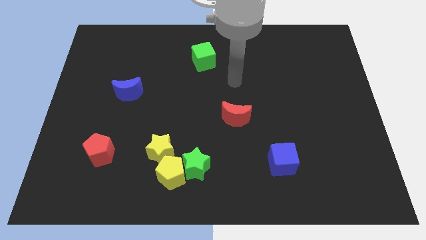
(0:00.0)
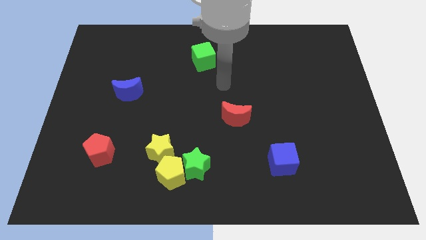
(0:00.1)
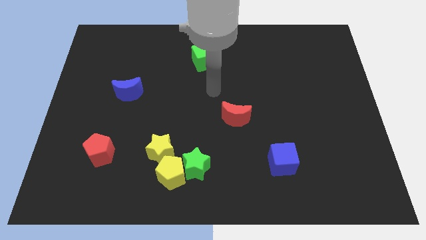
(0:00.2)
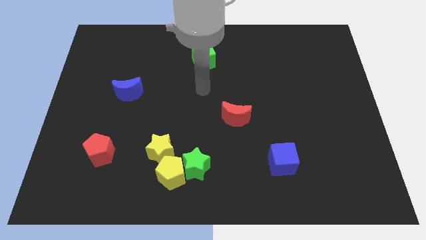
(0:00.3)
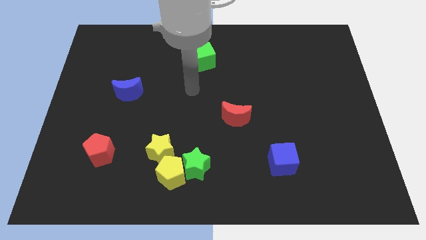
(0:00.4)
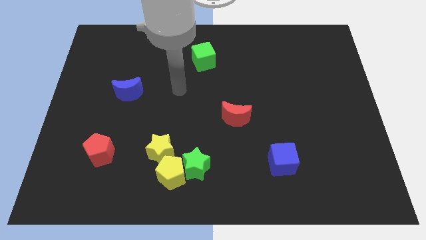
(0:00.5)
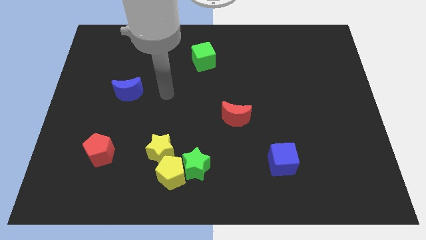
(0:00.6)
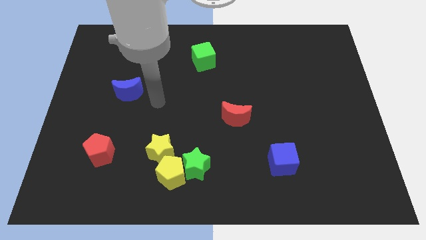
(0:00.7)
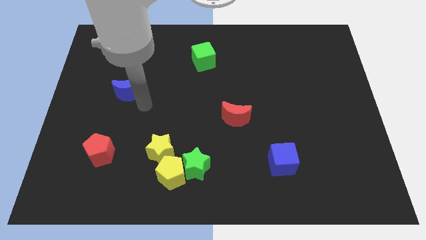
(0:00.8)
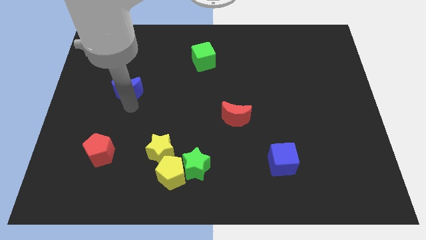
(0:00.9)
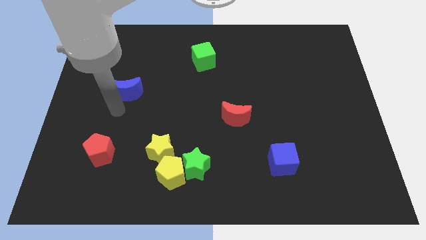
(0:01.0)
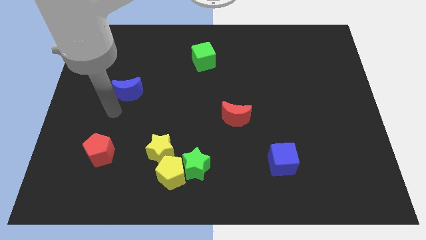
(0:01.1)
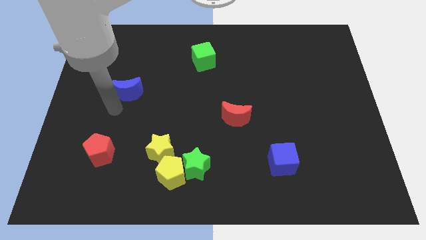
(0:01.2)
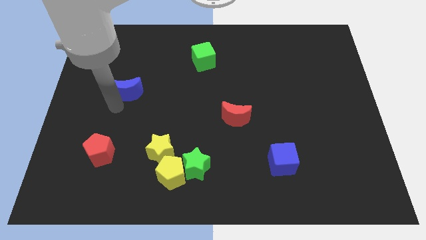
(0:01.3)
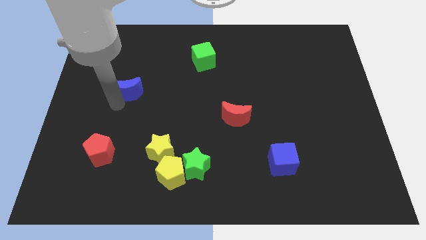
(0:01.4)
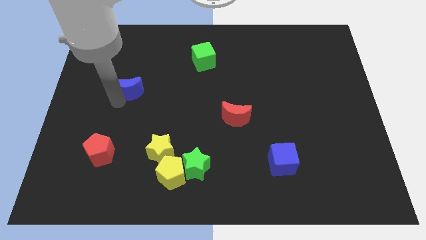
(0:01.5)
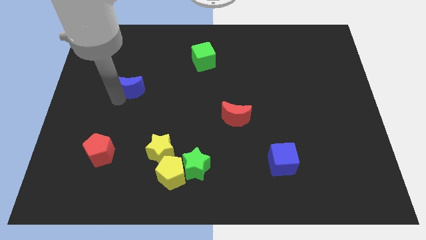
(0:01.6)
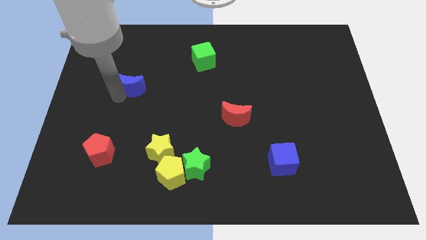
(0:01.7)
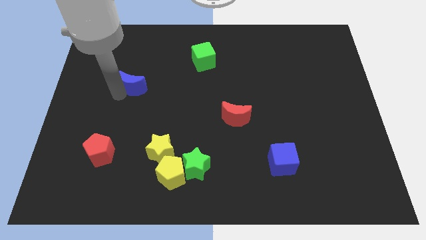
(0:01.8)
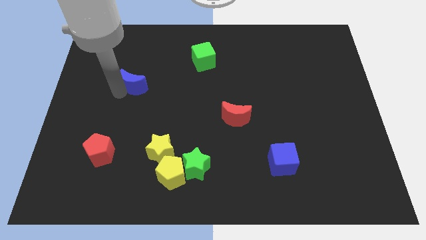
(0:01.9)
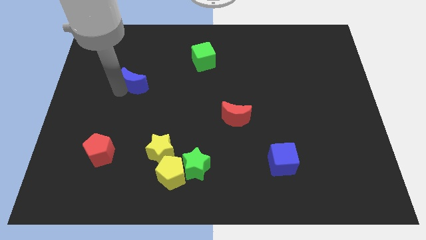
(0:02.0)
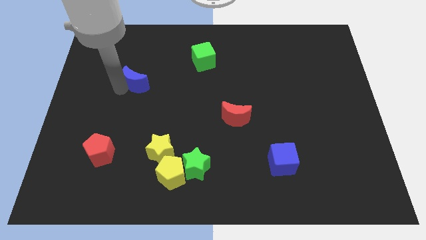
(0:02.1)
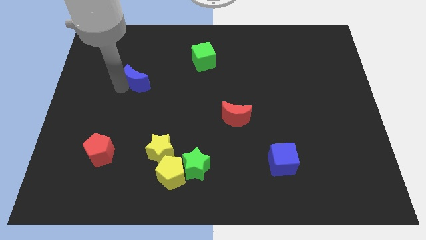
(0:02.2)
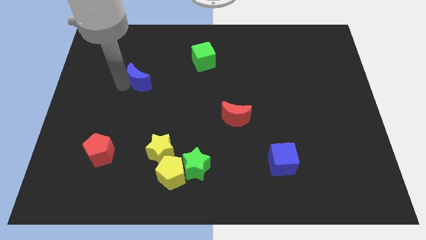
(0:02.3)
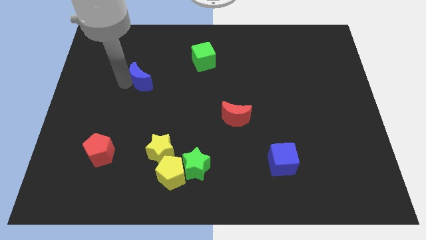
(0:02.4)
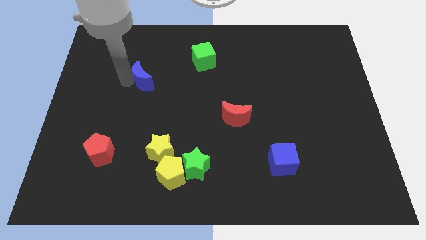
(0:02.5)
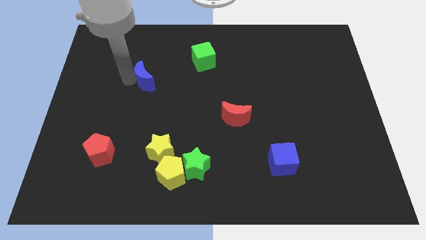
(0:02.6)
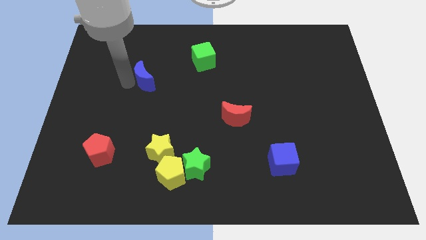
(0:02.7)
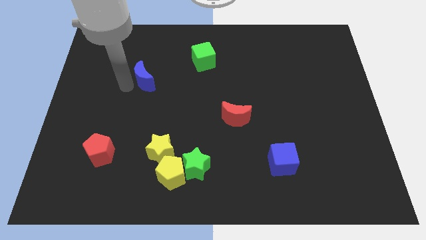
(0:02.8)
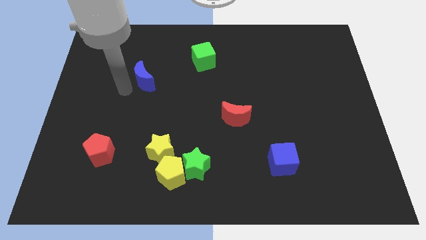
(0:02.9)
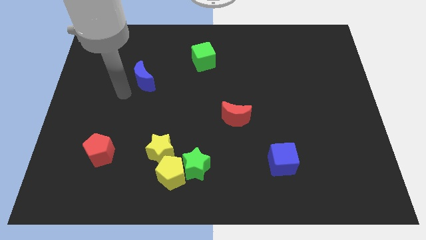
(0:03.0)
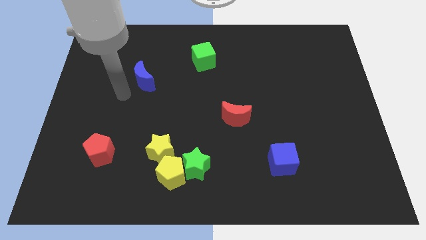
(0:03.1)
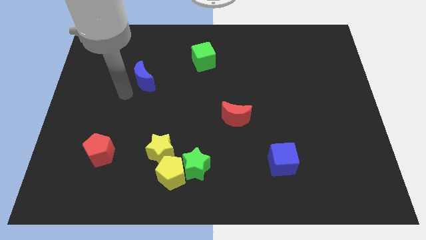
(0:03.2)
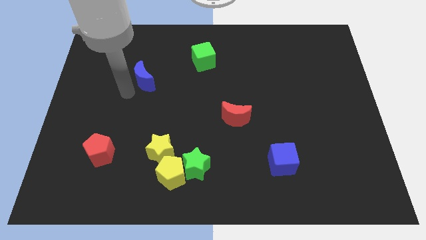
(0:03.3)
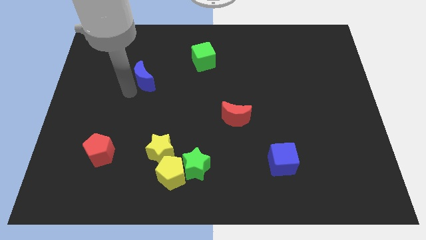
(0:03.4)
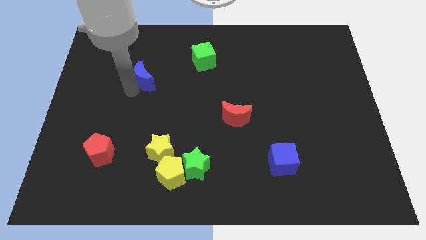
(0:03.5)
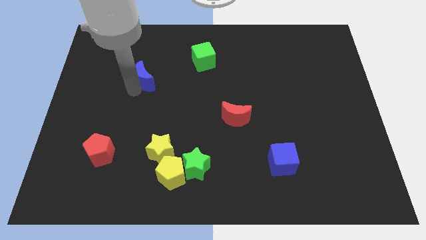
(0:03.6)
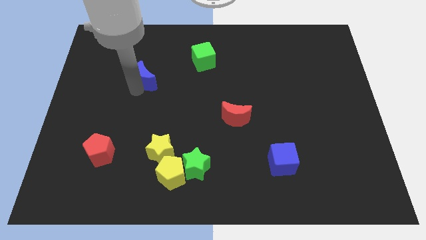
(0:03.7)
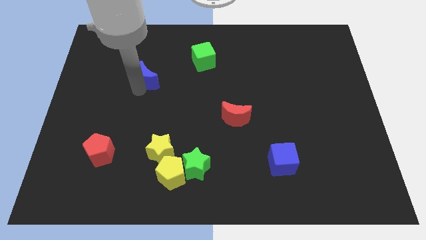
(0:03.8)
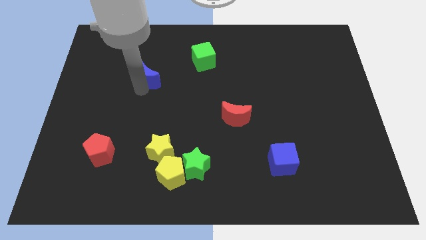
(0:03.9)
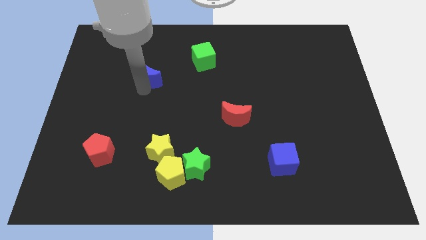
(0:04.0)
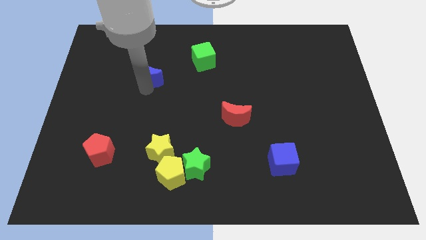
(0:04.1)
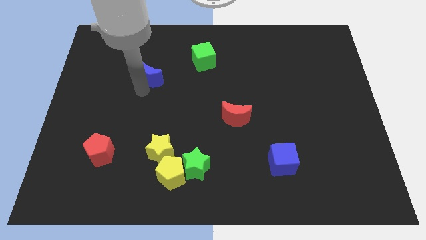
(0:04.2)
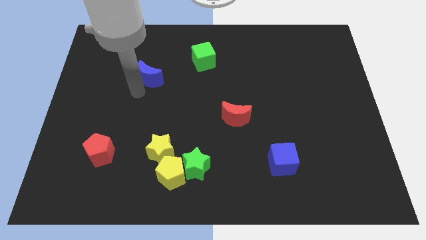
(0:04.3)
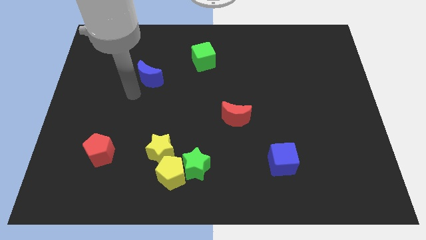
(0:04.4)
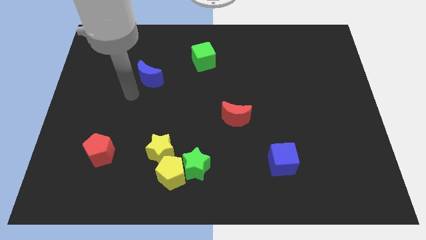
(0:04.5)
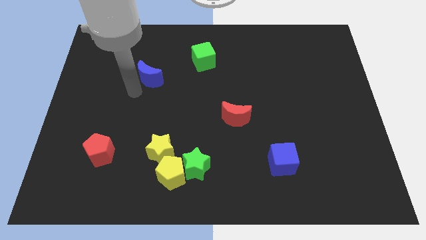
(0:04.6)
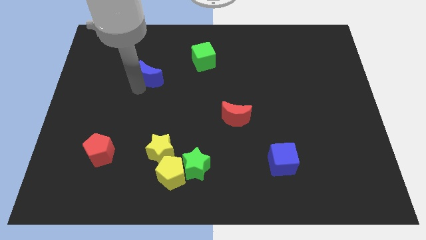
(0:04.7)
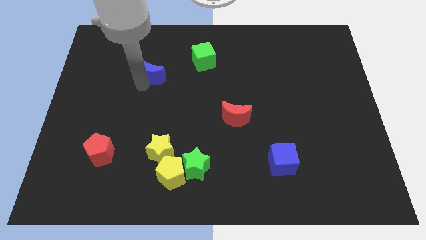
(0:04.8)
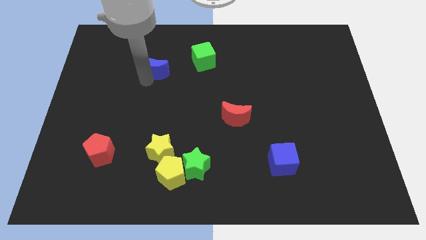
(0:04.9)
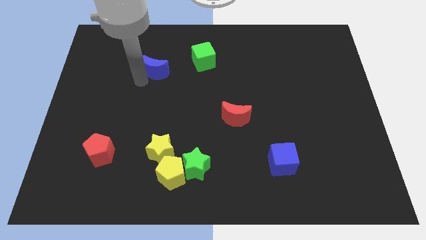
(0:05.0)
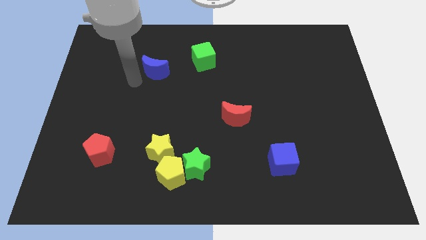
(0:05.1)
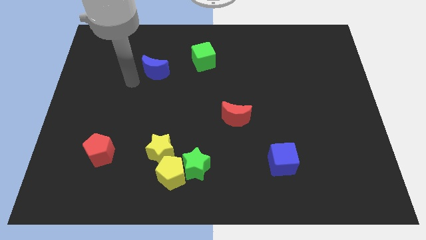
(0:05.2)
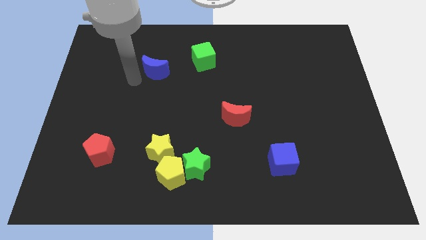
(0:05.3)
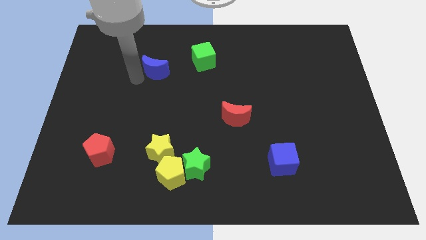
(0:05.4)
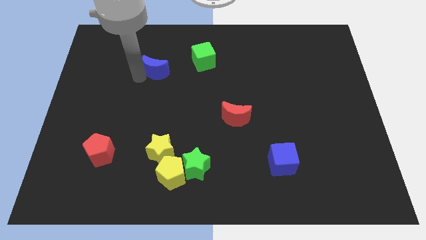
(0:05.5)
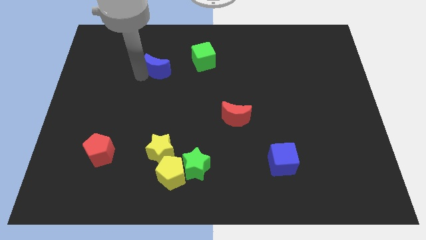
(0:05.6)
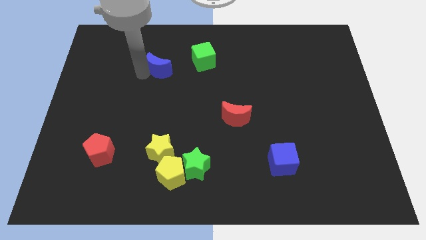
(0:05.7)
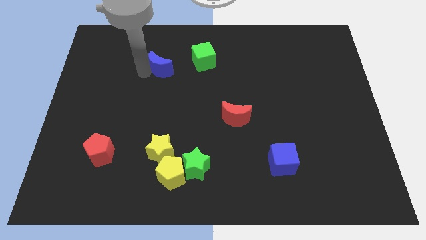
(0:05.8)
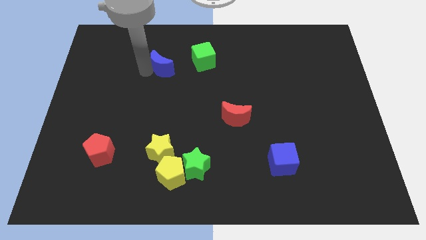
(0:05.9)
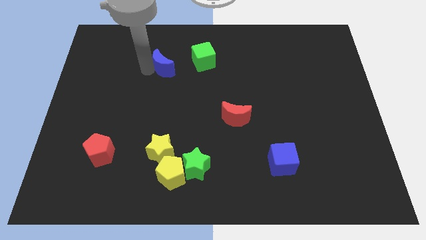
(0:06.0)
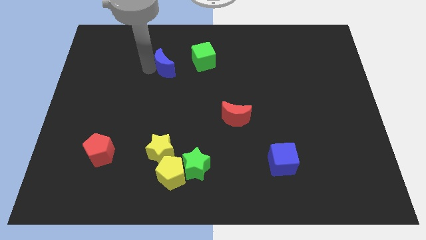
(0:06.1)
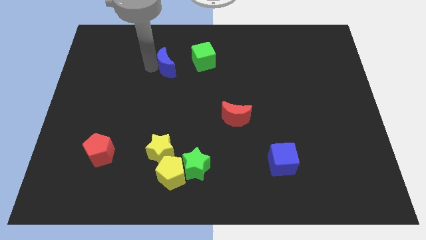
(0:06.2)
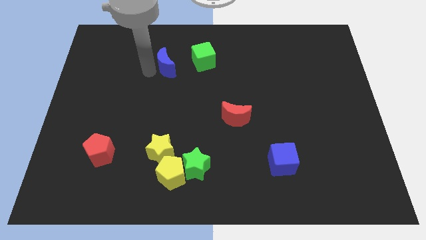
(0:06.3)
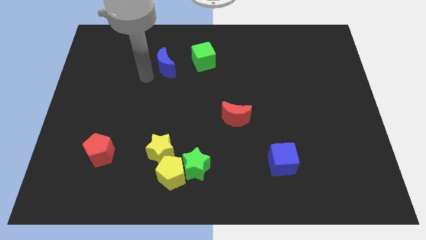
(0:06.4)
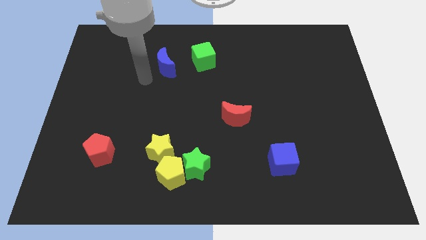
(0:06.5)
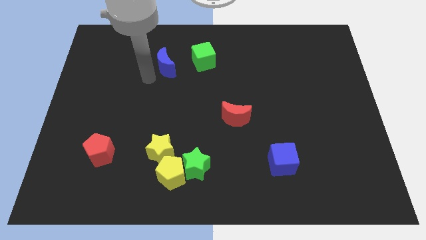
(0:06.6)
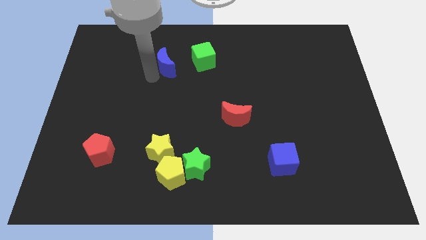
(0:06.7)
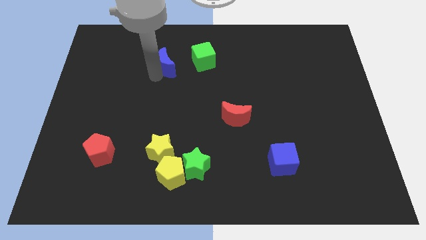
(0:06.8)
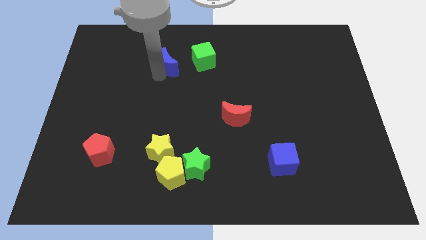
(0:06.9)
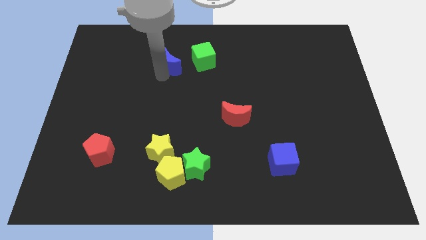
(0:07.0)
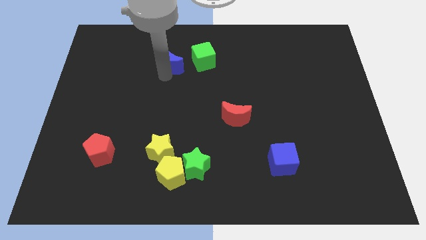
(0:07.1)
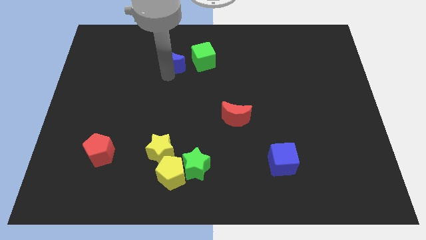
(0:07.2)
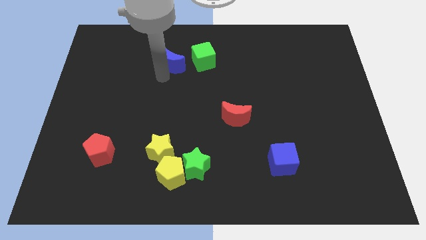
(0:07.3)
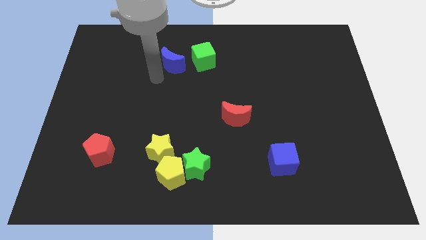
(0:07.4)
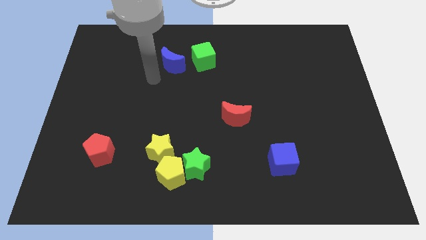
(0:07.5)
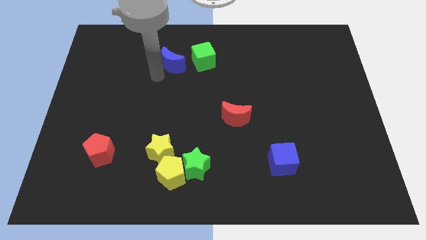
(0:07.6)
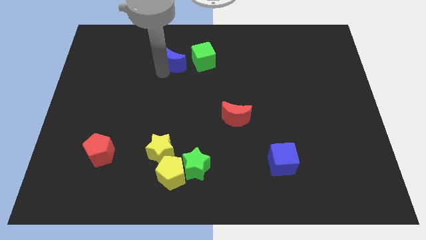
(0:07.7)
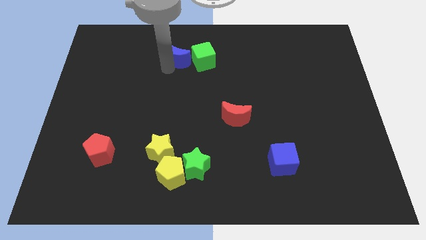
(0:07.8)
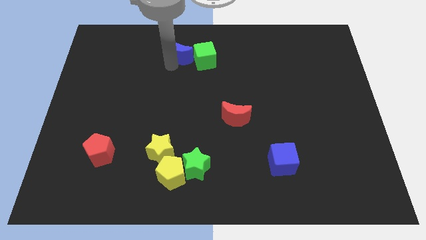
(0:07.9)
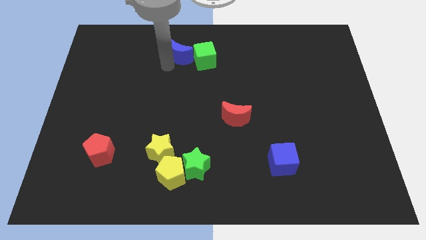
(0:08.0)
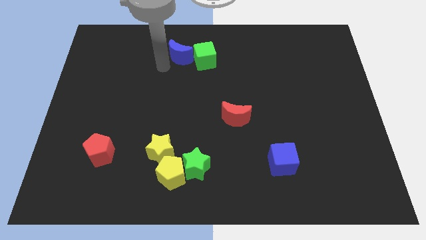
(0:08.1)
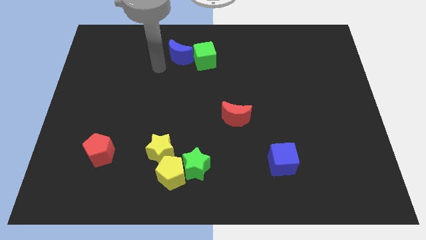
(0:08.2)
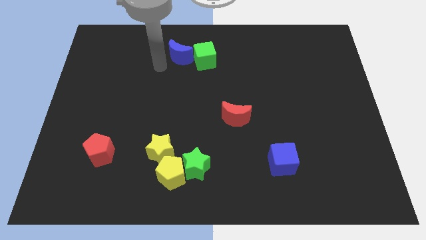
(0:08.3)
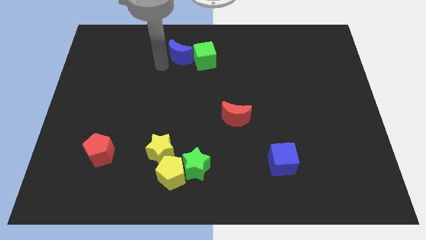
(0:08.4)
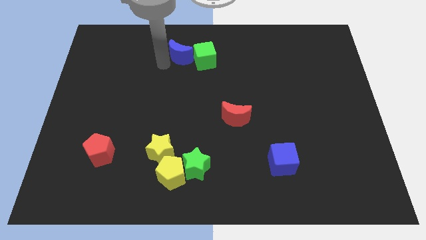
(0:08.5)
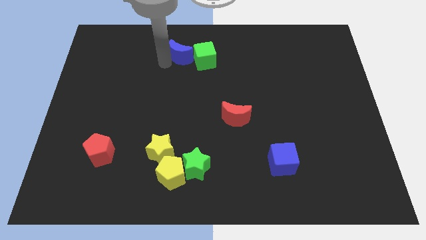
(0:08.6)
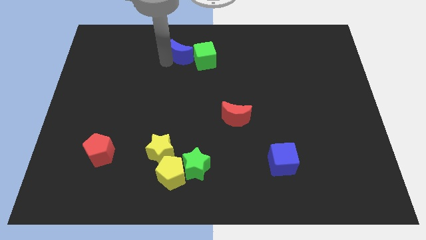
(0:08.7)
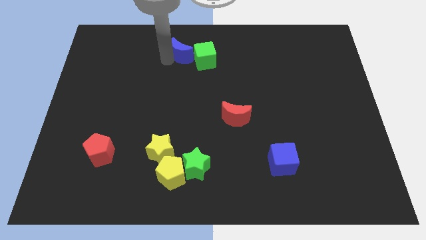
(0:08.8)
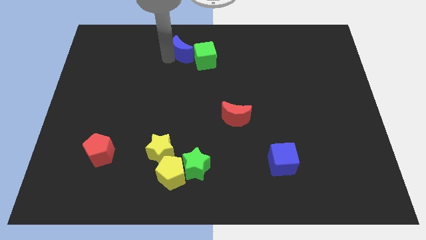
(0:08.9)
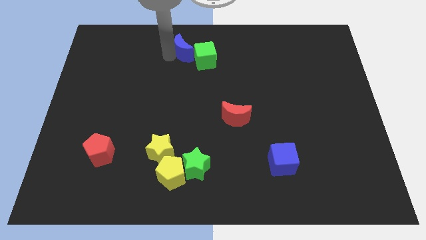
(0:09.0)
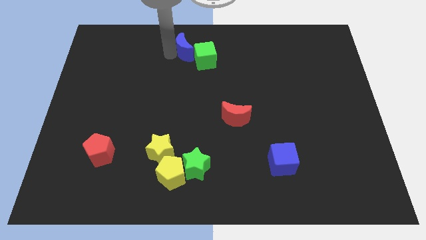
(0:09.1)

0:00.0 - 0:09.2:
move the blue moon to the top
